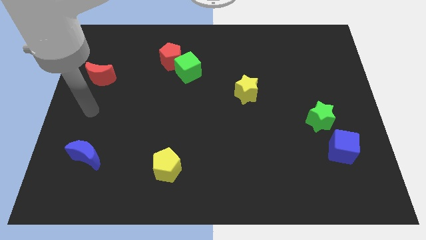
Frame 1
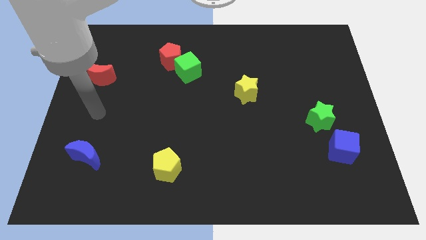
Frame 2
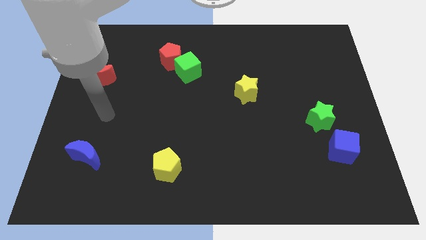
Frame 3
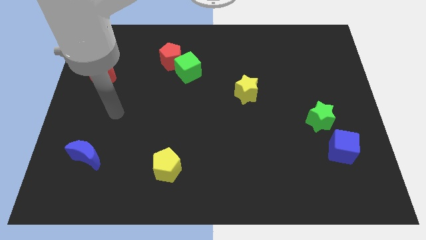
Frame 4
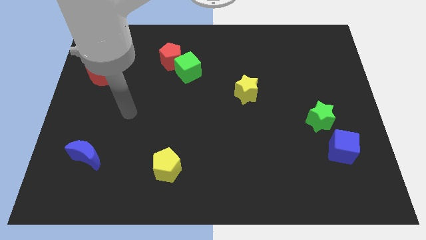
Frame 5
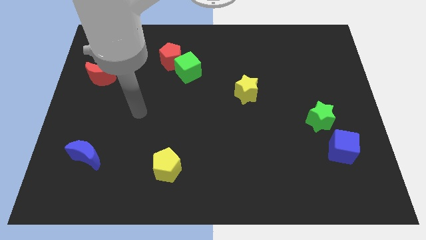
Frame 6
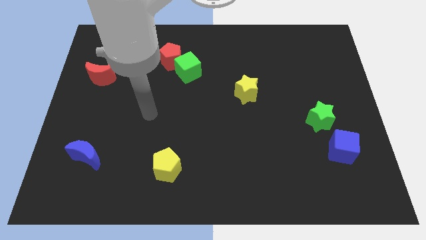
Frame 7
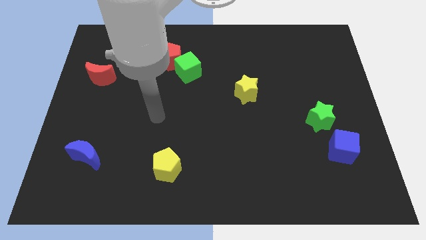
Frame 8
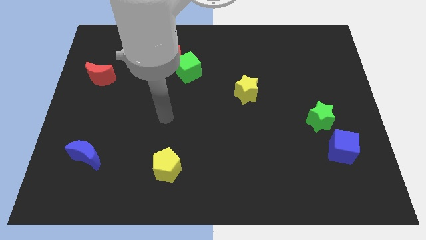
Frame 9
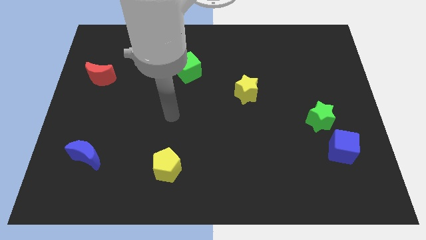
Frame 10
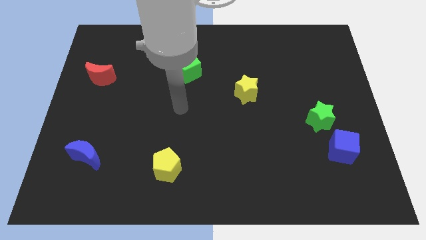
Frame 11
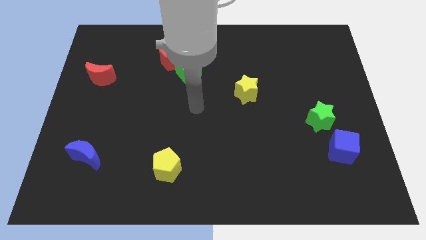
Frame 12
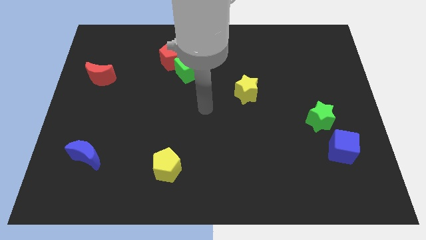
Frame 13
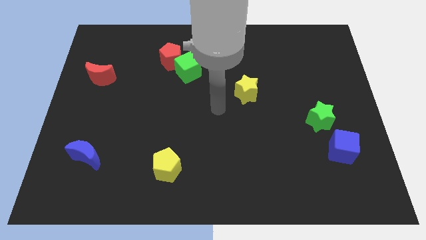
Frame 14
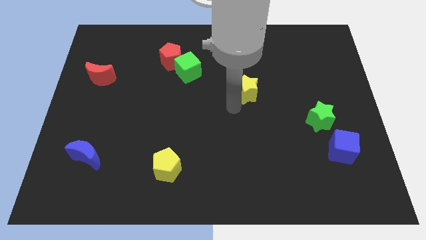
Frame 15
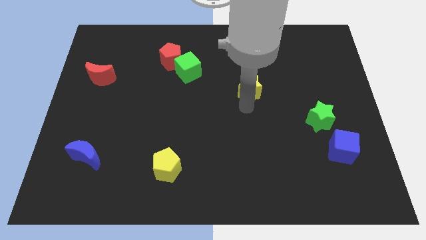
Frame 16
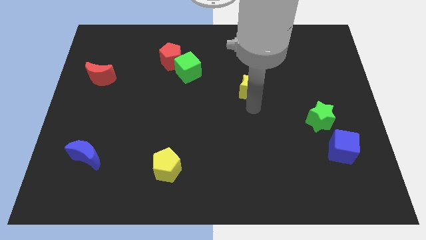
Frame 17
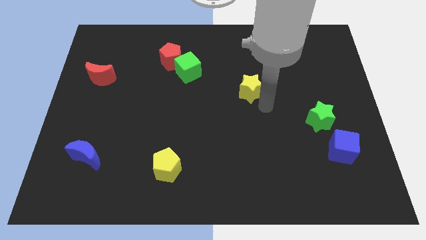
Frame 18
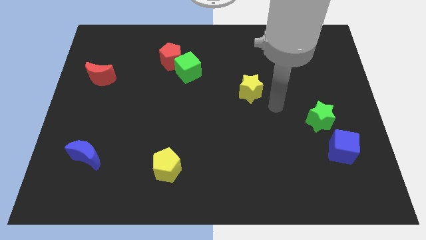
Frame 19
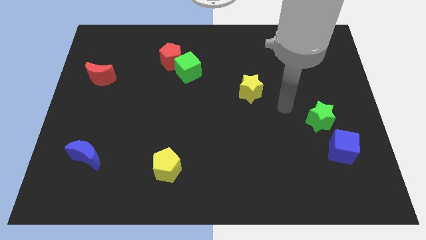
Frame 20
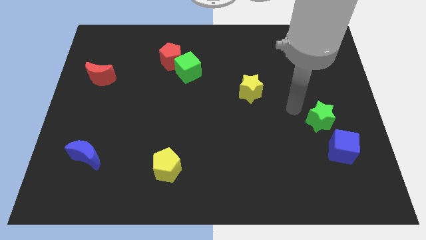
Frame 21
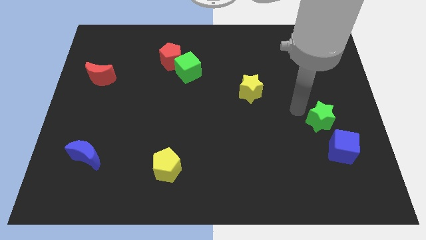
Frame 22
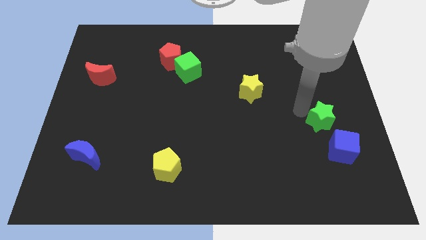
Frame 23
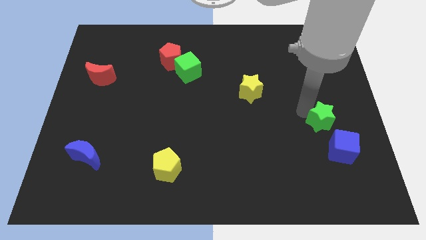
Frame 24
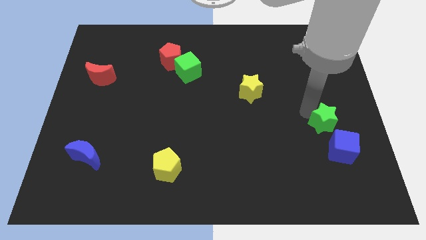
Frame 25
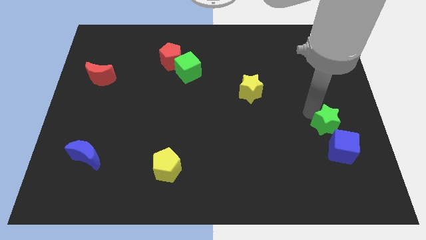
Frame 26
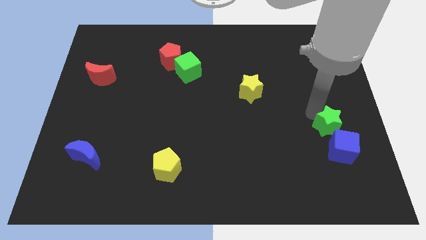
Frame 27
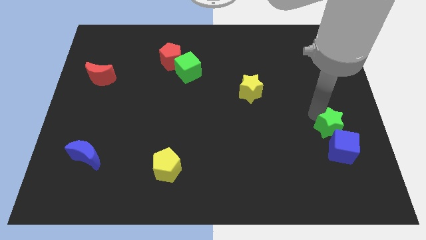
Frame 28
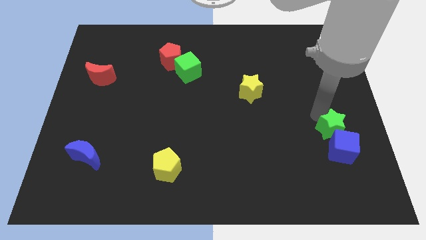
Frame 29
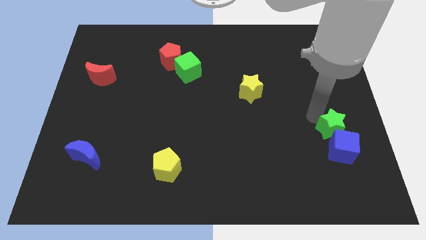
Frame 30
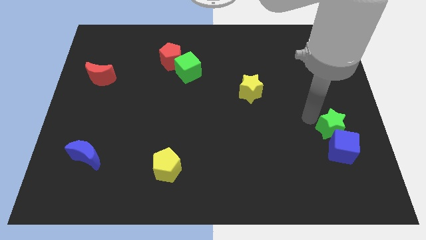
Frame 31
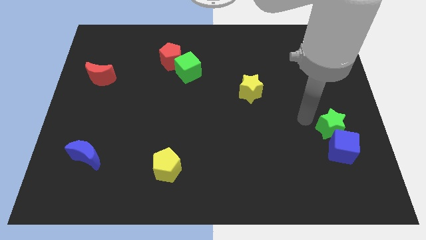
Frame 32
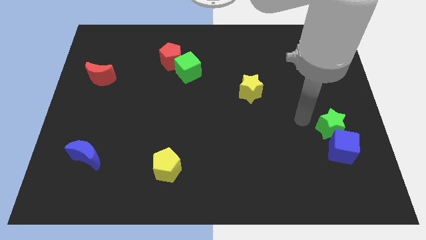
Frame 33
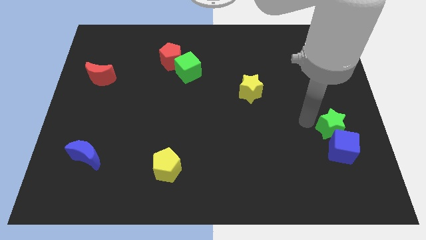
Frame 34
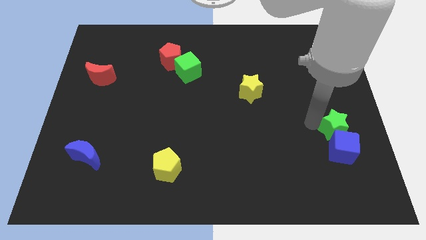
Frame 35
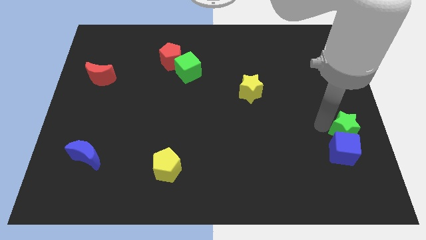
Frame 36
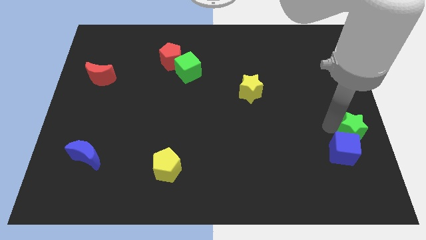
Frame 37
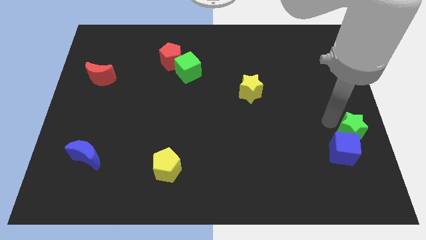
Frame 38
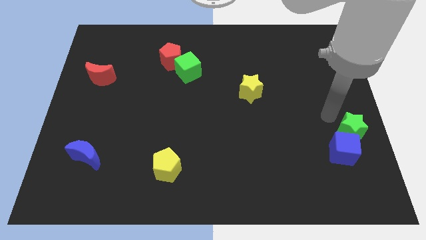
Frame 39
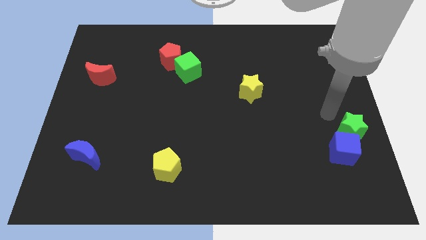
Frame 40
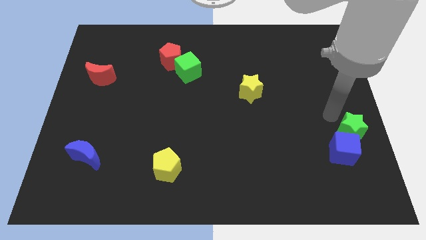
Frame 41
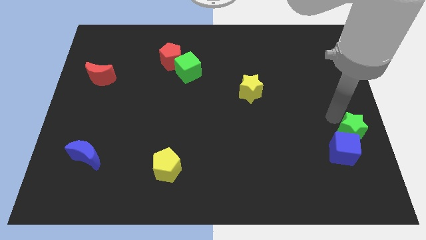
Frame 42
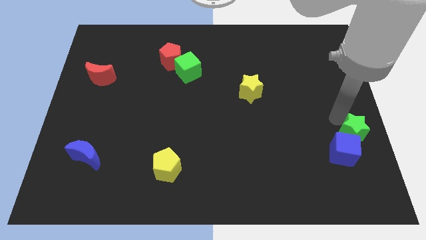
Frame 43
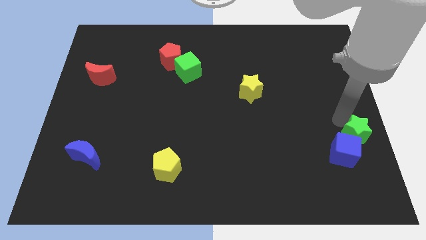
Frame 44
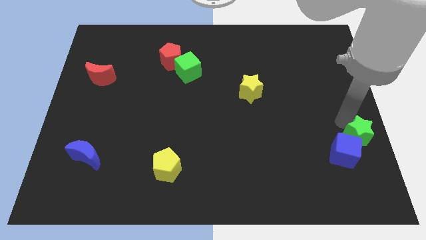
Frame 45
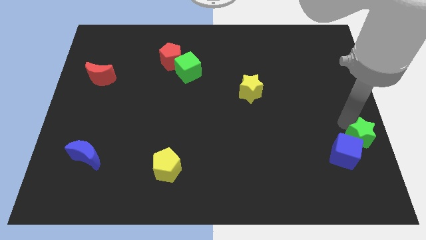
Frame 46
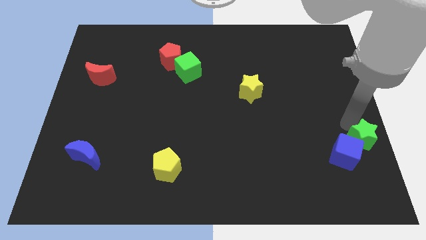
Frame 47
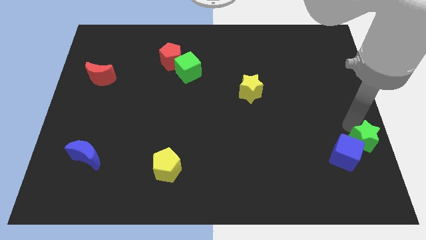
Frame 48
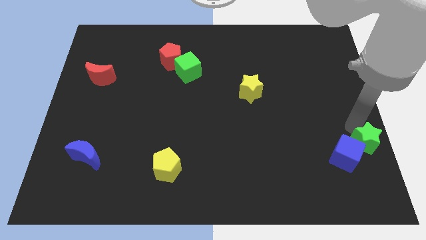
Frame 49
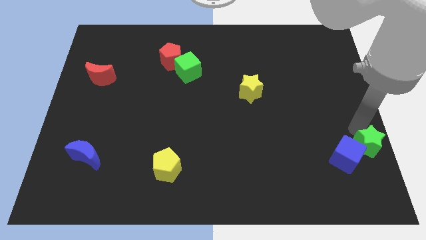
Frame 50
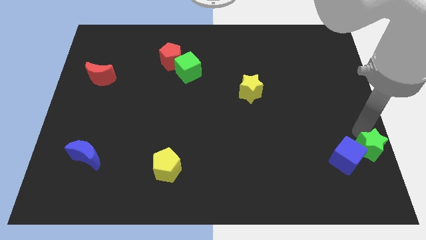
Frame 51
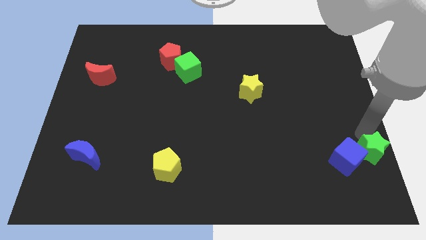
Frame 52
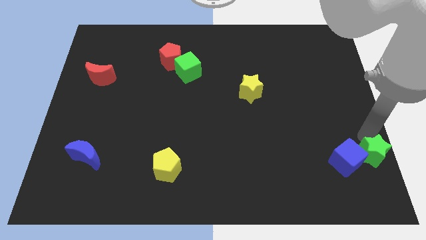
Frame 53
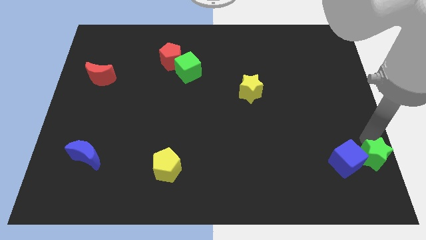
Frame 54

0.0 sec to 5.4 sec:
put the green star to the lower right corner

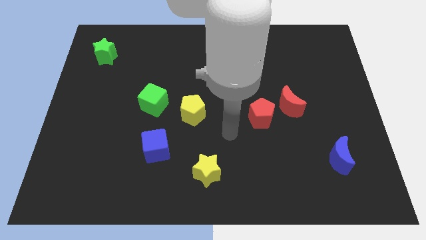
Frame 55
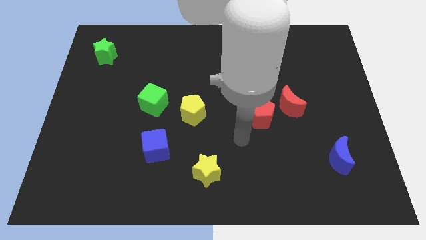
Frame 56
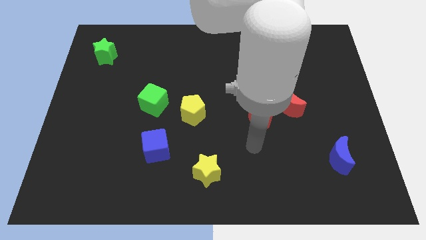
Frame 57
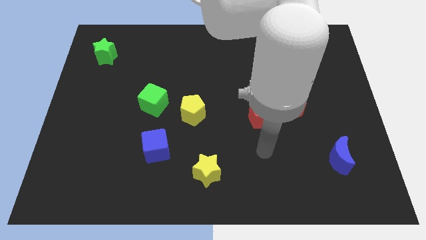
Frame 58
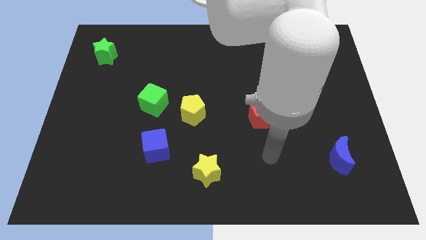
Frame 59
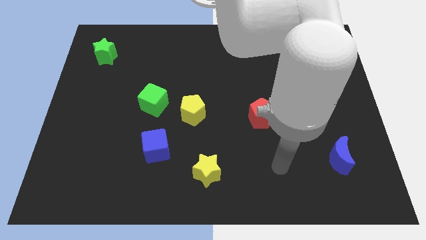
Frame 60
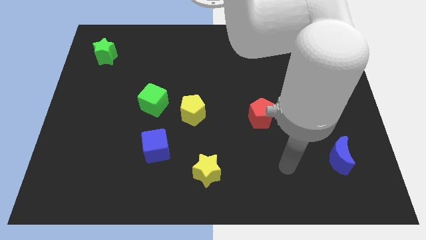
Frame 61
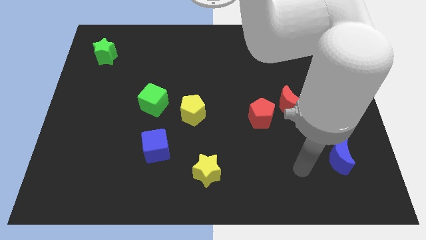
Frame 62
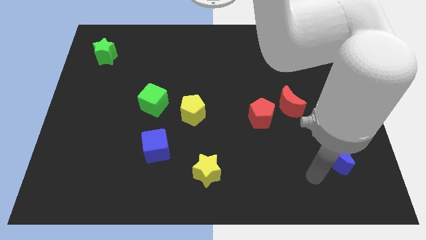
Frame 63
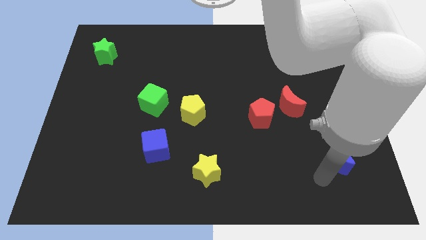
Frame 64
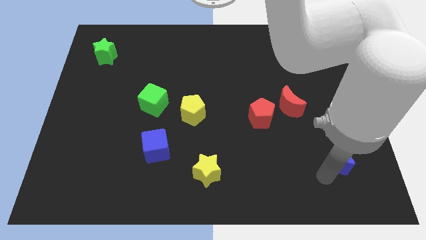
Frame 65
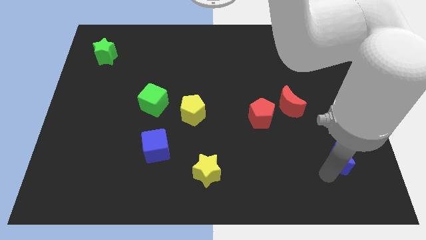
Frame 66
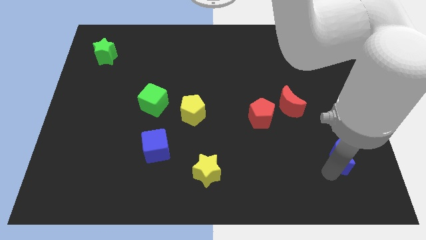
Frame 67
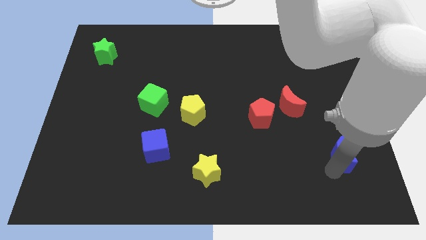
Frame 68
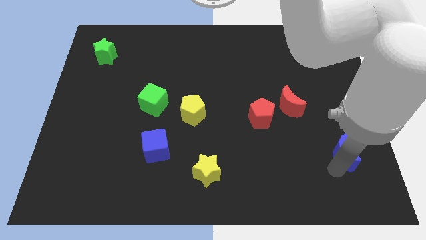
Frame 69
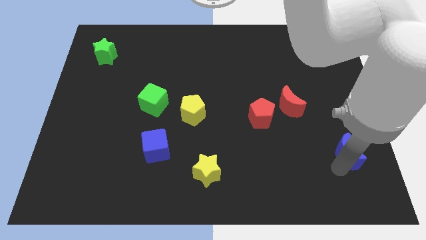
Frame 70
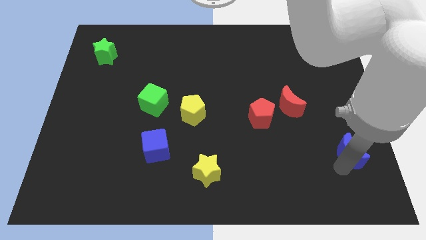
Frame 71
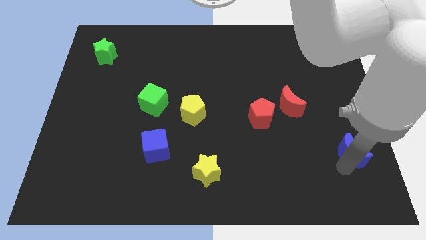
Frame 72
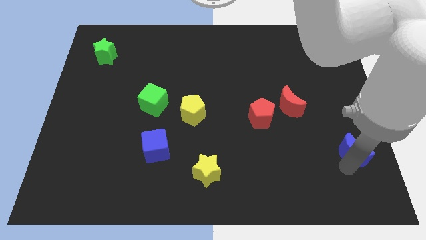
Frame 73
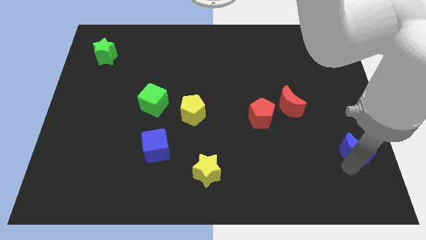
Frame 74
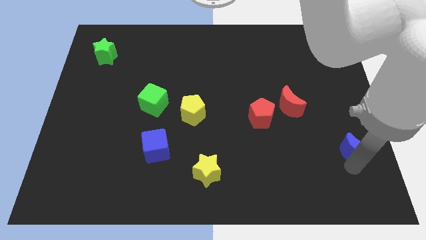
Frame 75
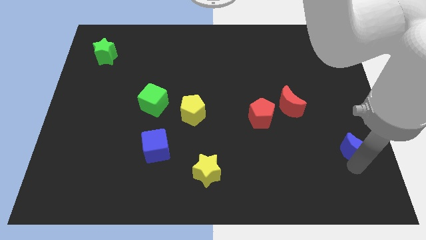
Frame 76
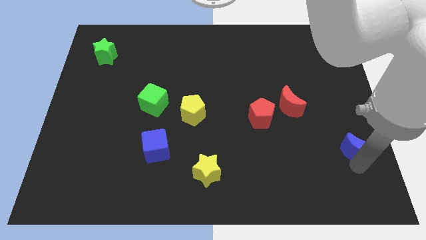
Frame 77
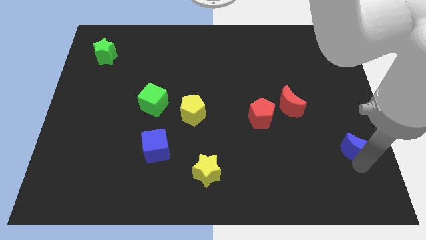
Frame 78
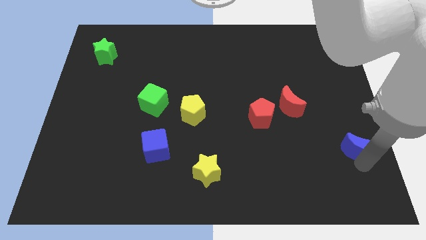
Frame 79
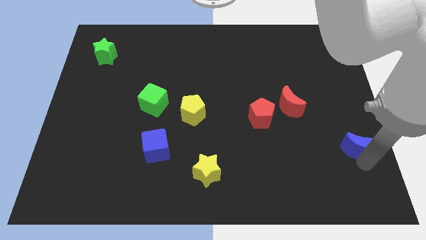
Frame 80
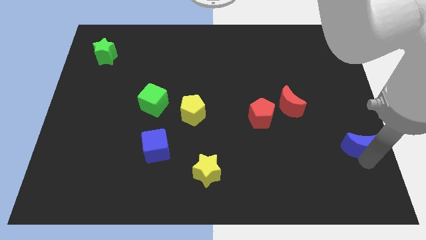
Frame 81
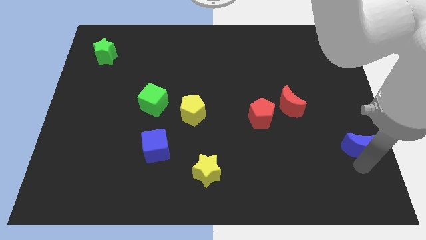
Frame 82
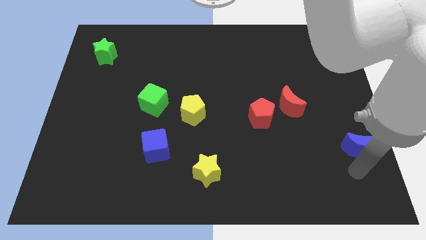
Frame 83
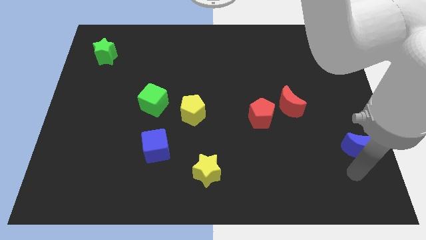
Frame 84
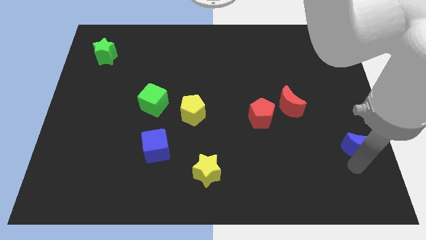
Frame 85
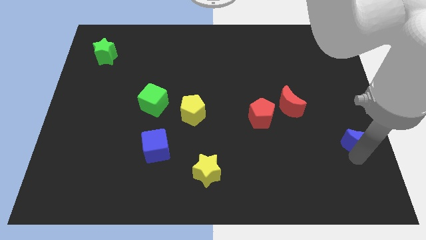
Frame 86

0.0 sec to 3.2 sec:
put the blue moon to the right side
